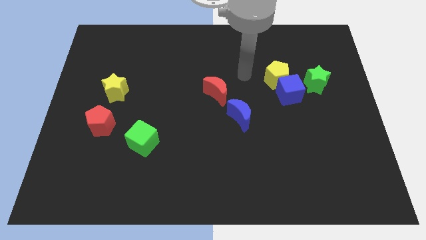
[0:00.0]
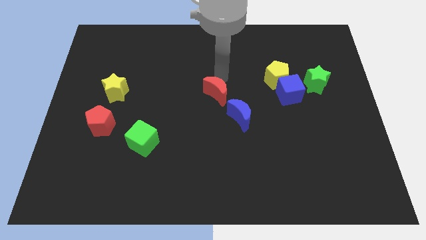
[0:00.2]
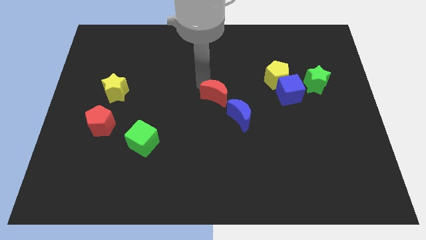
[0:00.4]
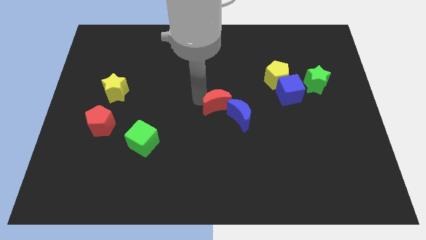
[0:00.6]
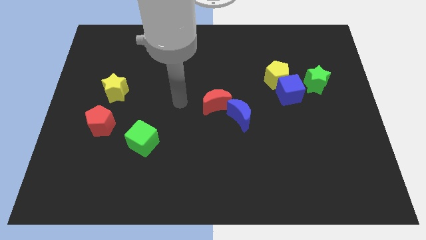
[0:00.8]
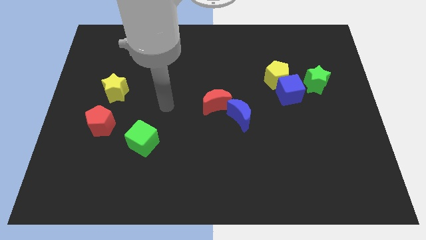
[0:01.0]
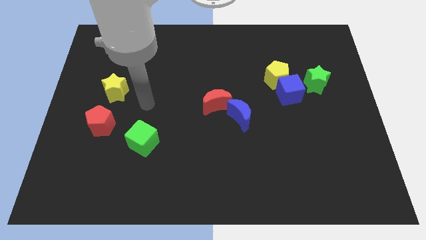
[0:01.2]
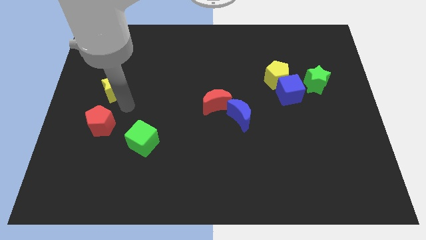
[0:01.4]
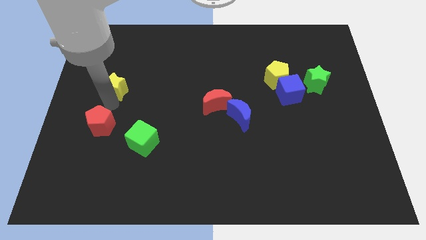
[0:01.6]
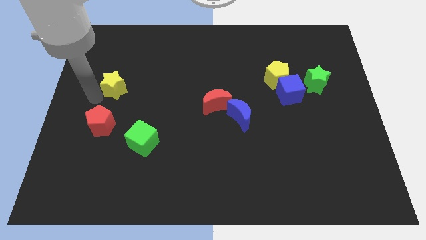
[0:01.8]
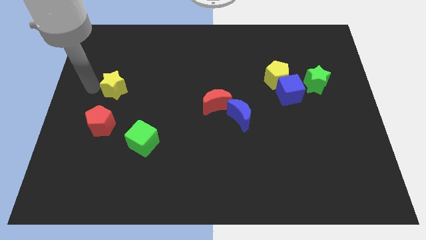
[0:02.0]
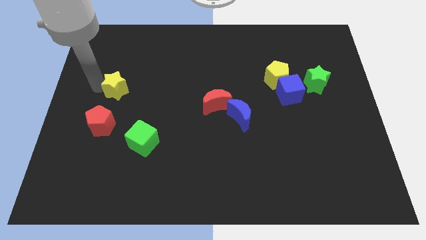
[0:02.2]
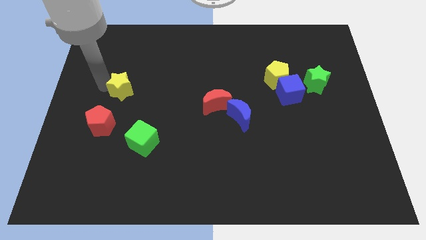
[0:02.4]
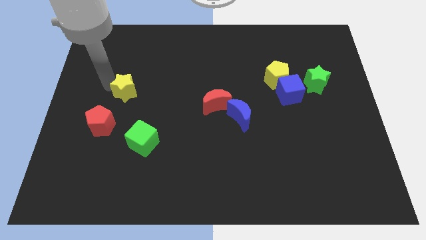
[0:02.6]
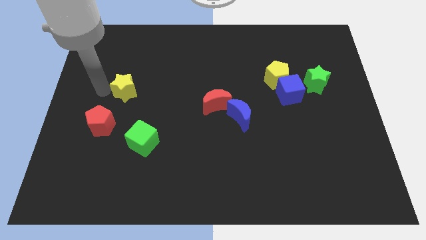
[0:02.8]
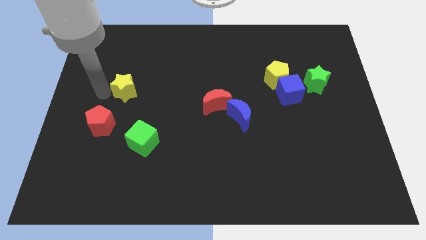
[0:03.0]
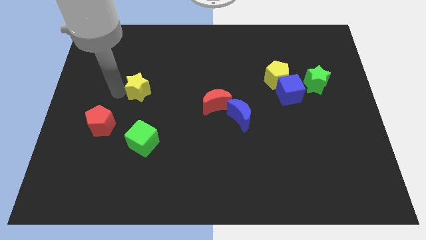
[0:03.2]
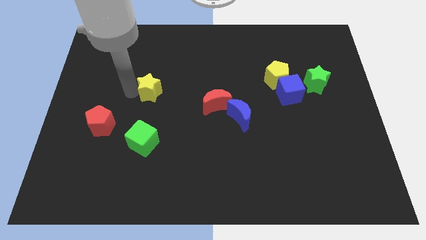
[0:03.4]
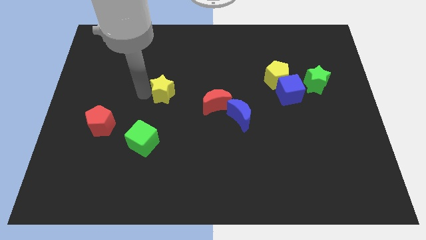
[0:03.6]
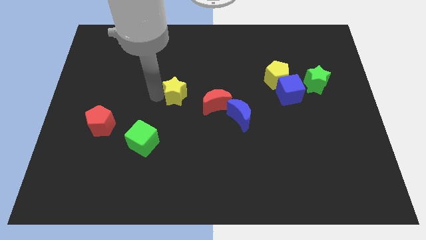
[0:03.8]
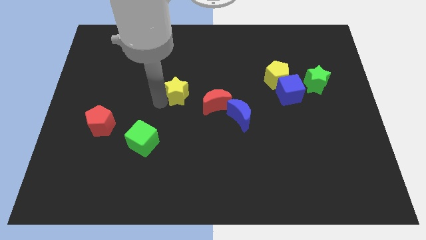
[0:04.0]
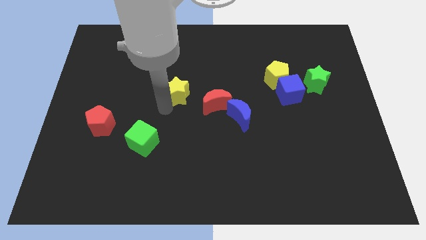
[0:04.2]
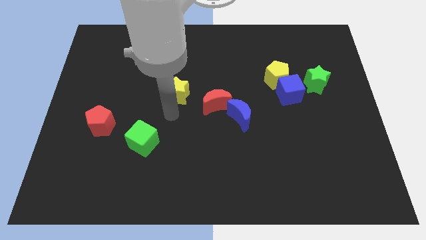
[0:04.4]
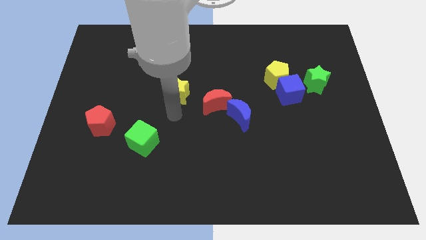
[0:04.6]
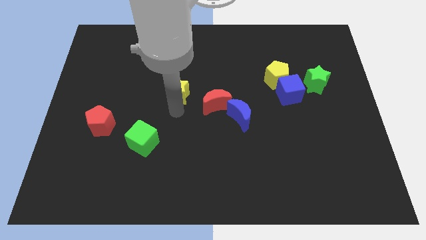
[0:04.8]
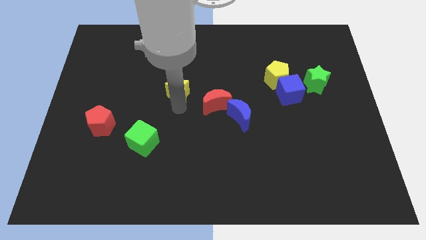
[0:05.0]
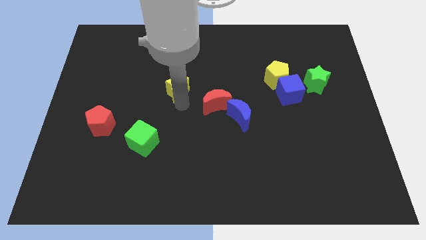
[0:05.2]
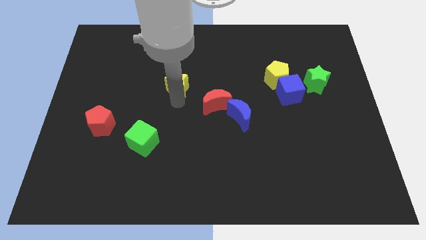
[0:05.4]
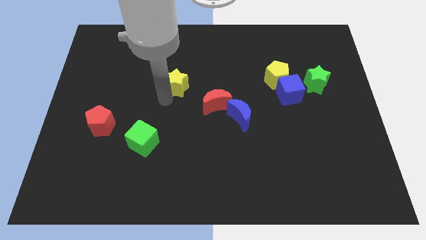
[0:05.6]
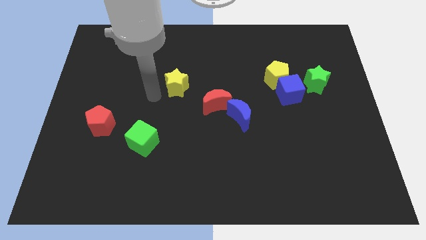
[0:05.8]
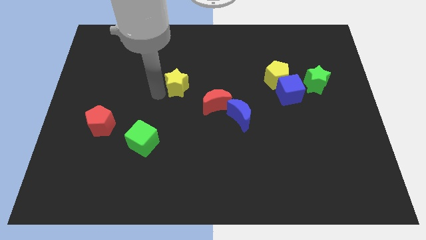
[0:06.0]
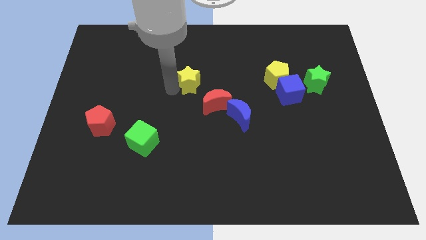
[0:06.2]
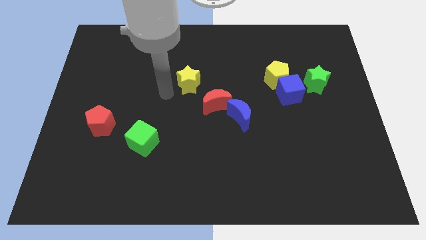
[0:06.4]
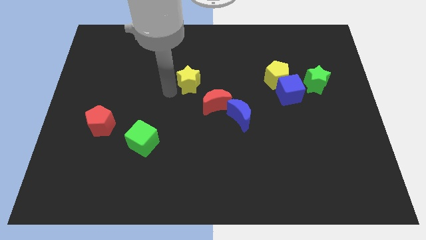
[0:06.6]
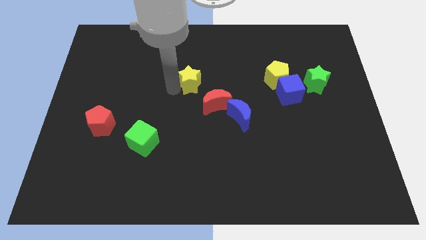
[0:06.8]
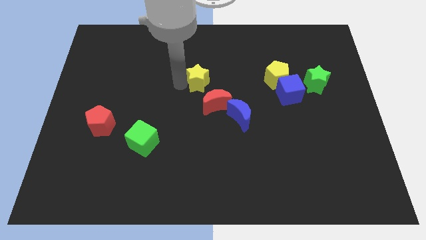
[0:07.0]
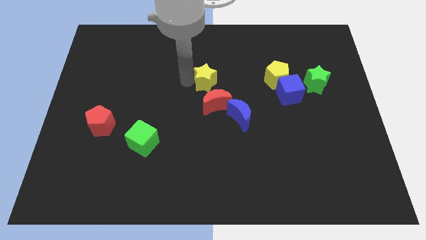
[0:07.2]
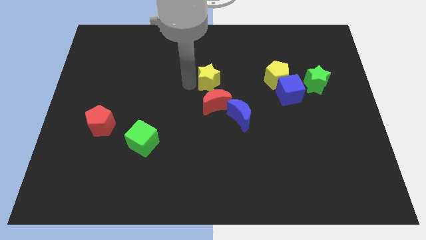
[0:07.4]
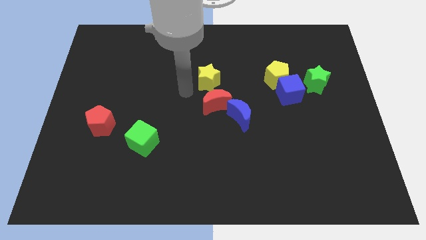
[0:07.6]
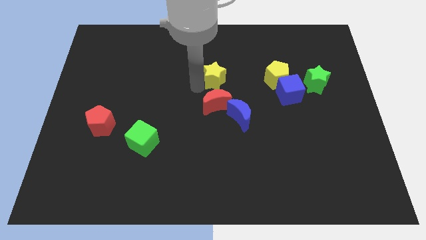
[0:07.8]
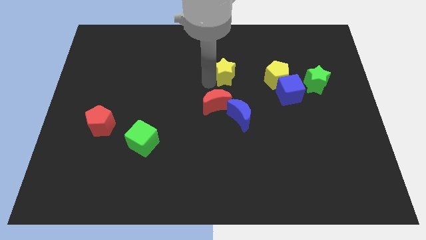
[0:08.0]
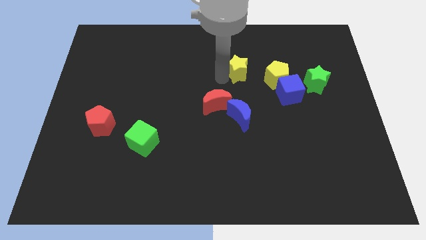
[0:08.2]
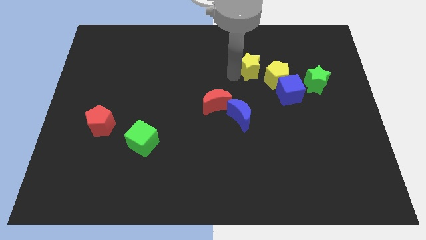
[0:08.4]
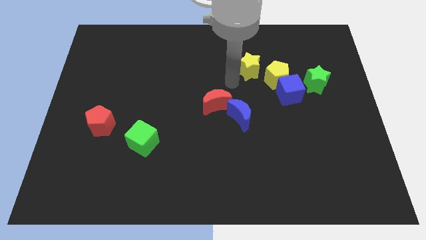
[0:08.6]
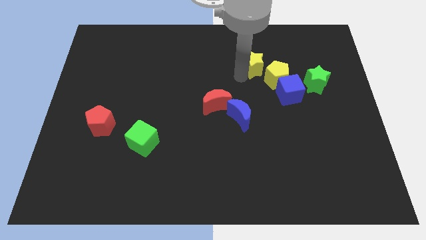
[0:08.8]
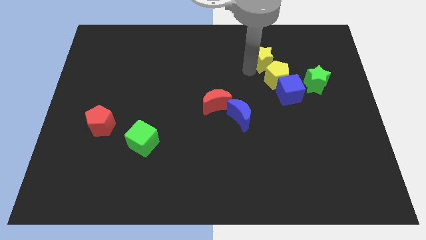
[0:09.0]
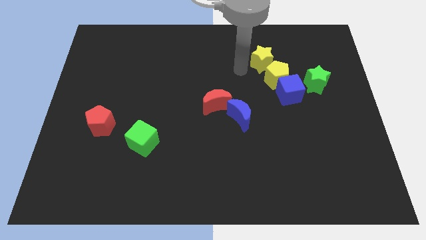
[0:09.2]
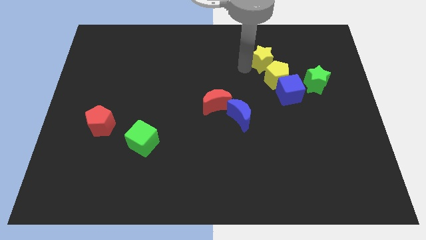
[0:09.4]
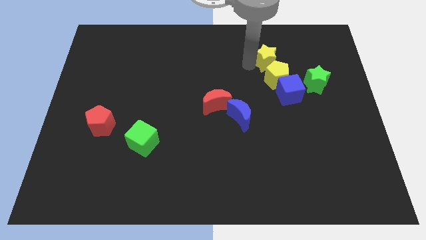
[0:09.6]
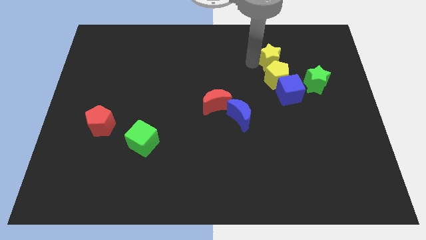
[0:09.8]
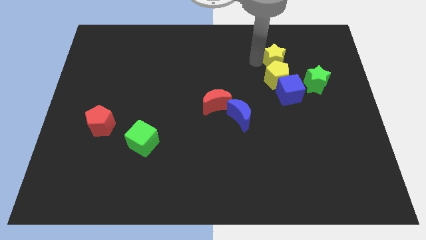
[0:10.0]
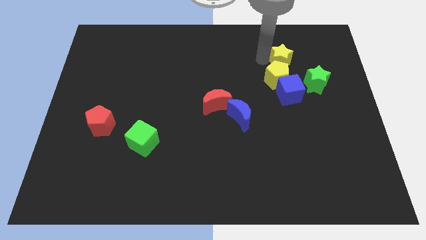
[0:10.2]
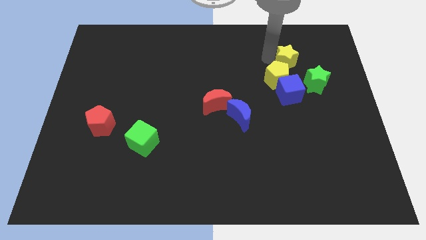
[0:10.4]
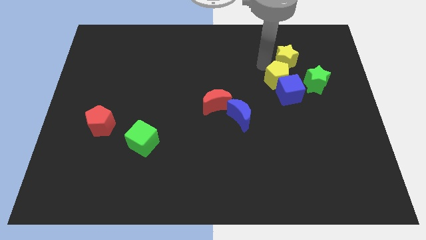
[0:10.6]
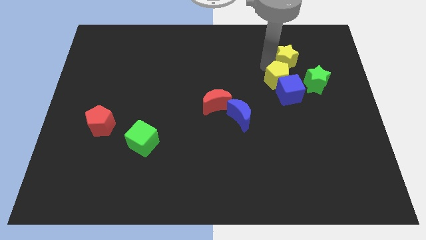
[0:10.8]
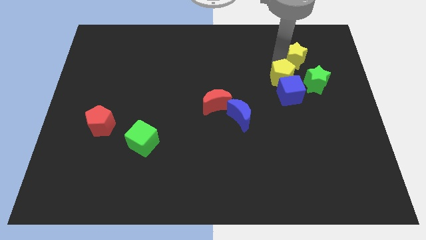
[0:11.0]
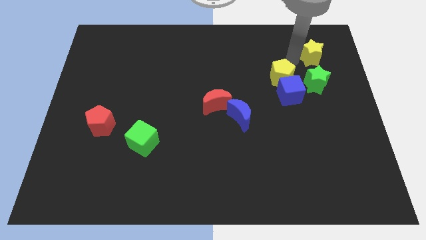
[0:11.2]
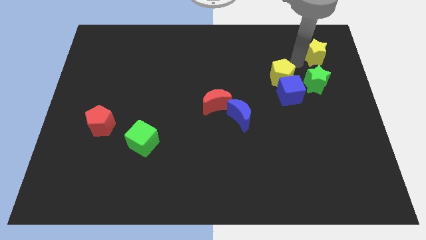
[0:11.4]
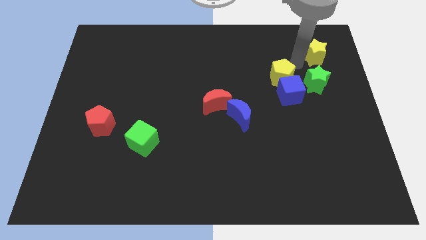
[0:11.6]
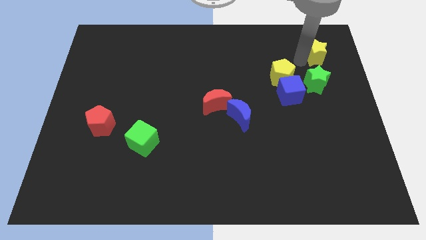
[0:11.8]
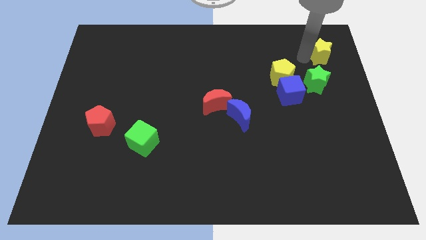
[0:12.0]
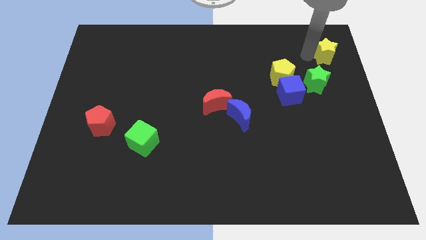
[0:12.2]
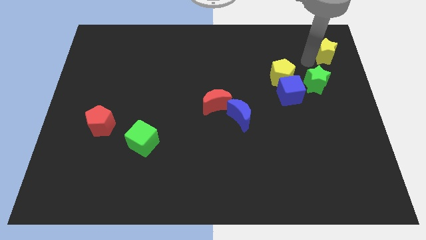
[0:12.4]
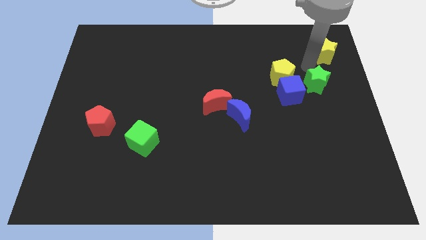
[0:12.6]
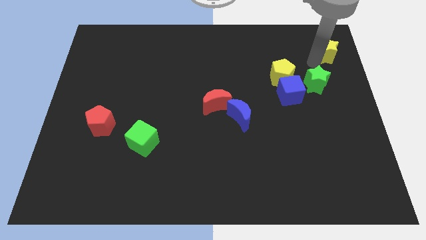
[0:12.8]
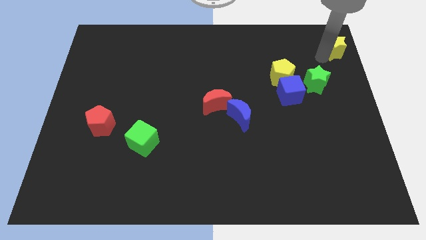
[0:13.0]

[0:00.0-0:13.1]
move the yellow star to the top right corner
